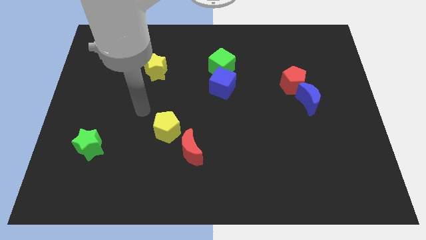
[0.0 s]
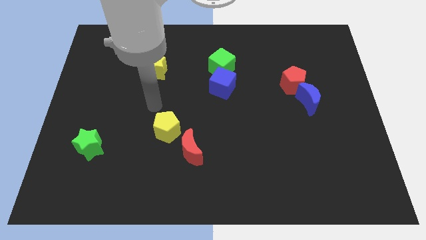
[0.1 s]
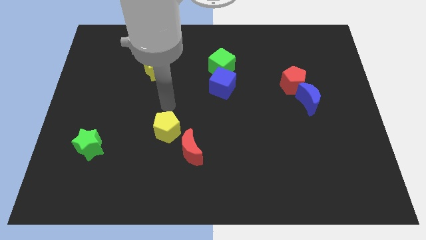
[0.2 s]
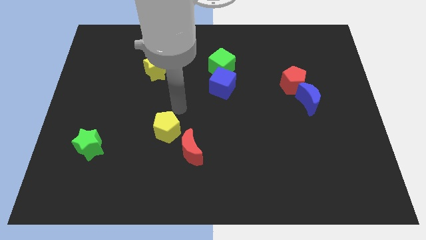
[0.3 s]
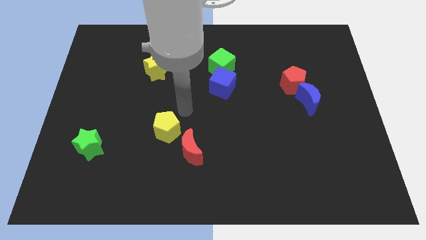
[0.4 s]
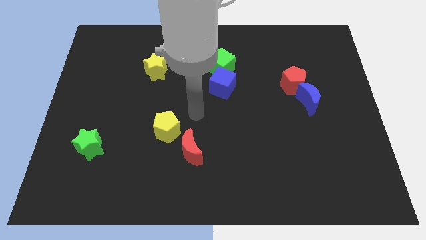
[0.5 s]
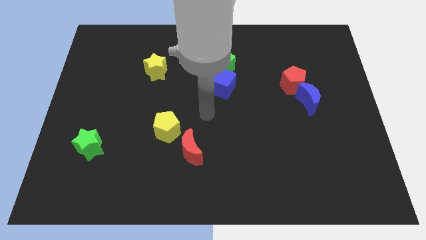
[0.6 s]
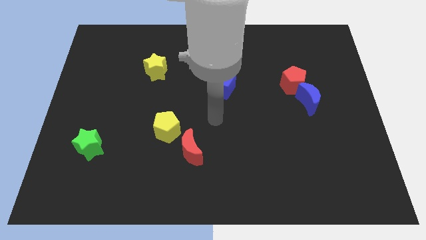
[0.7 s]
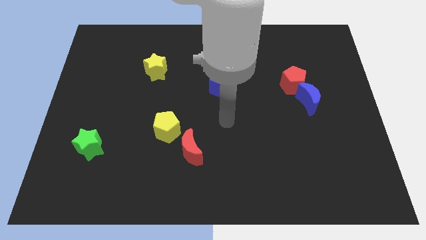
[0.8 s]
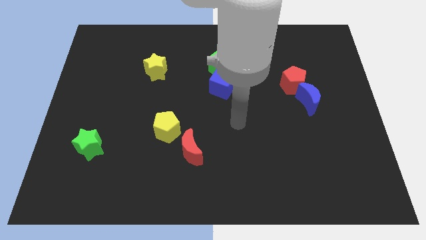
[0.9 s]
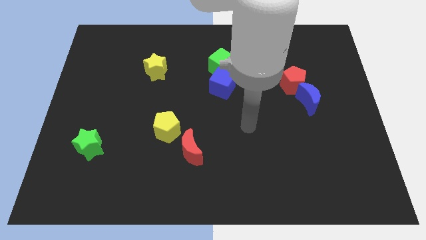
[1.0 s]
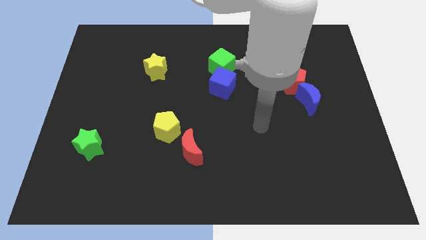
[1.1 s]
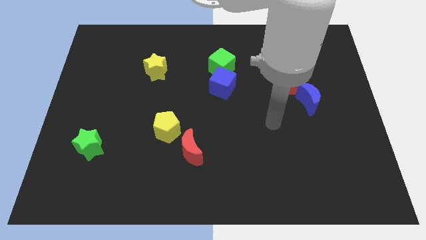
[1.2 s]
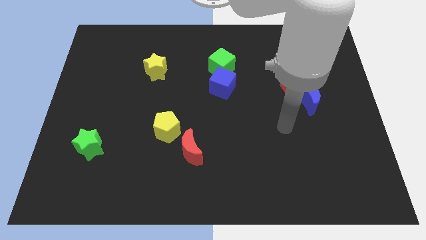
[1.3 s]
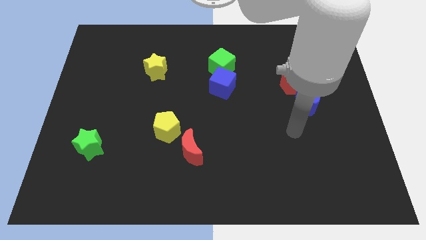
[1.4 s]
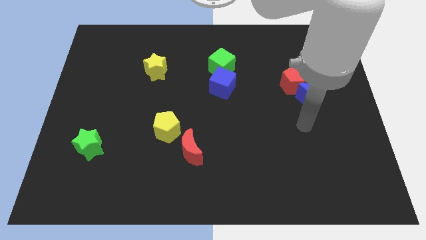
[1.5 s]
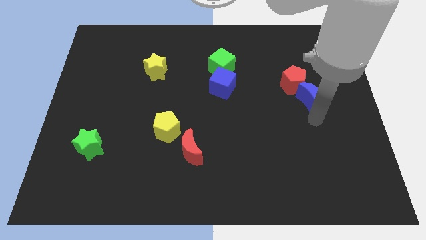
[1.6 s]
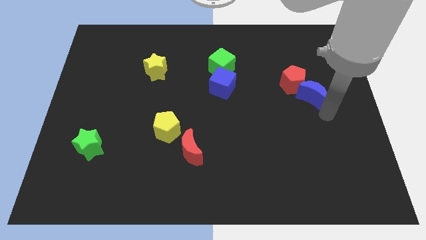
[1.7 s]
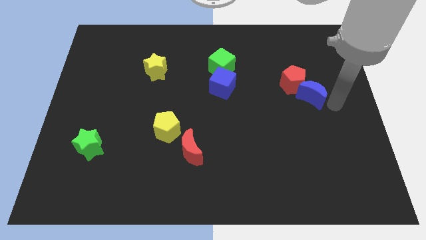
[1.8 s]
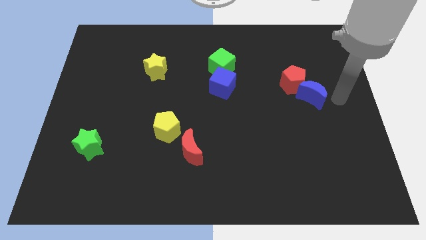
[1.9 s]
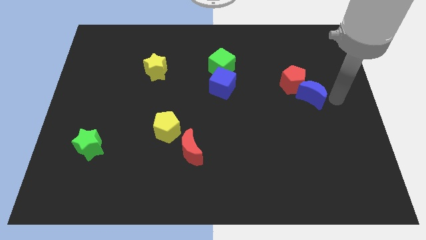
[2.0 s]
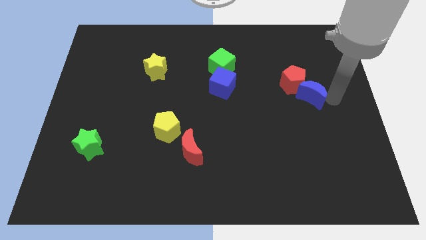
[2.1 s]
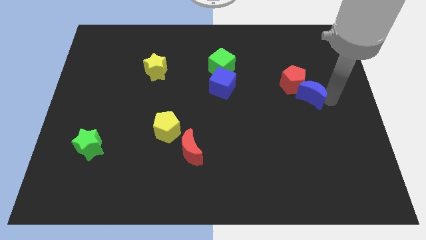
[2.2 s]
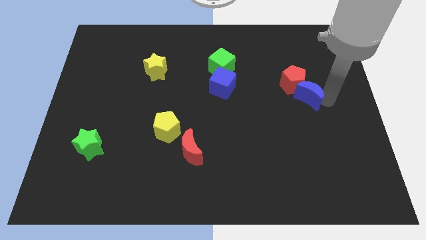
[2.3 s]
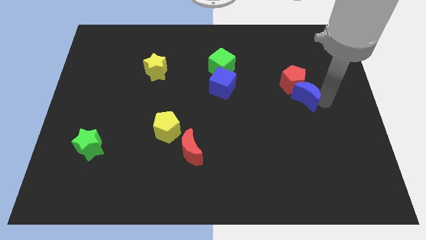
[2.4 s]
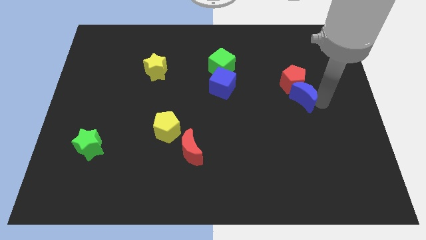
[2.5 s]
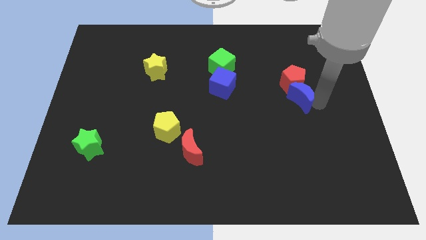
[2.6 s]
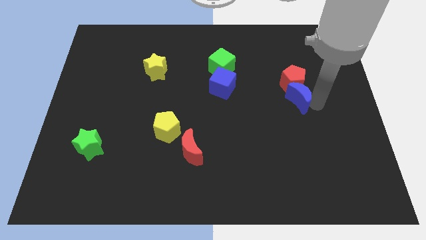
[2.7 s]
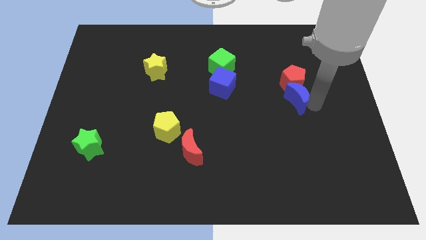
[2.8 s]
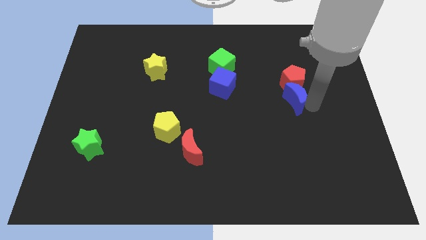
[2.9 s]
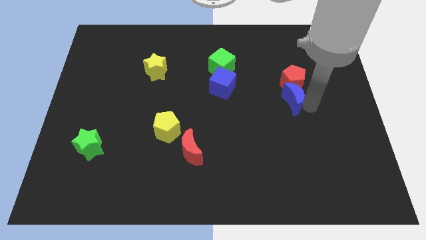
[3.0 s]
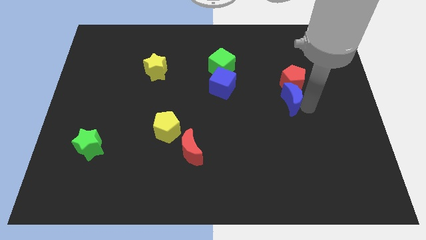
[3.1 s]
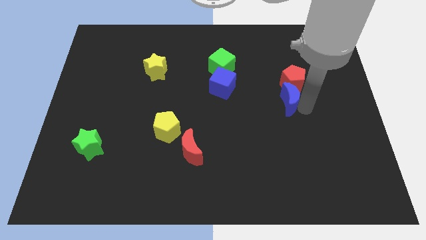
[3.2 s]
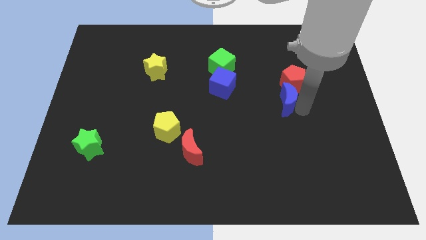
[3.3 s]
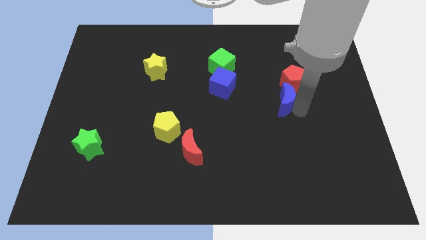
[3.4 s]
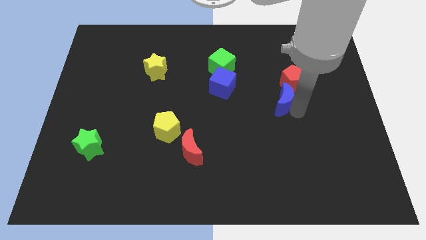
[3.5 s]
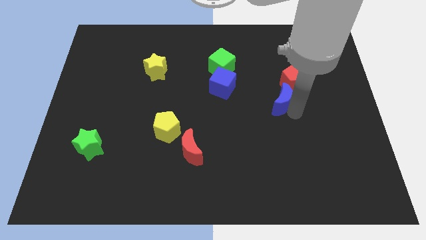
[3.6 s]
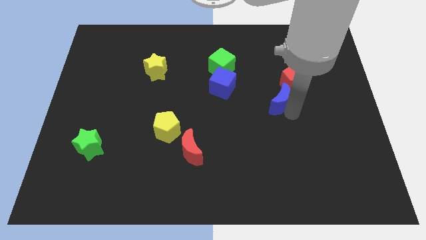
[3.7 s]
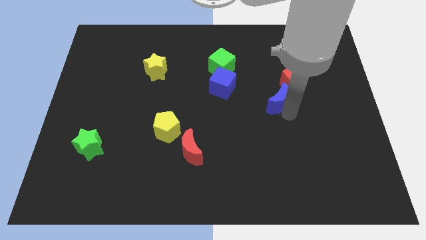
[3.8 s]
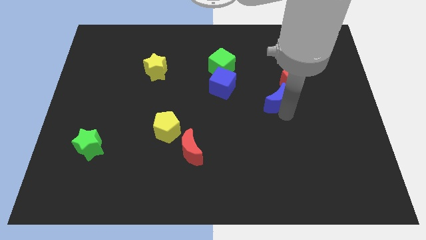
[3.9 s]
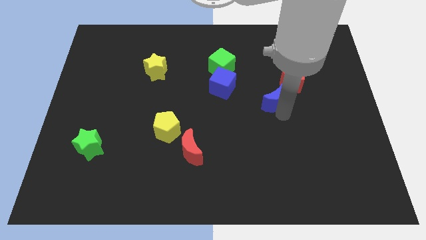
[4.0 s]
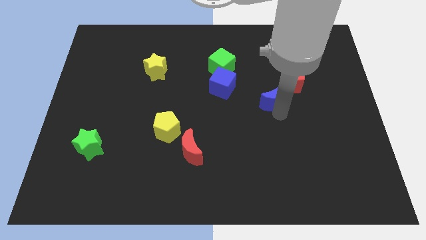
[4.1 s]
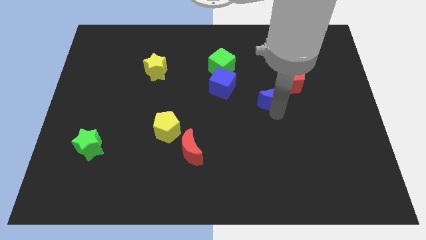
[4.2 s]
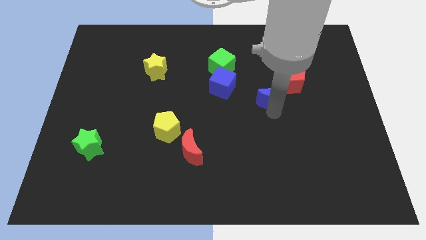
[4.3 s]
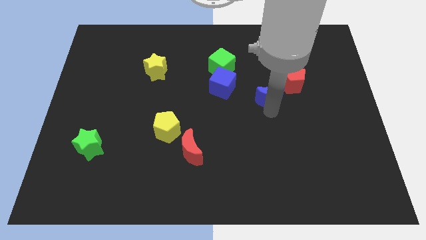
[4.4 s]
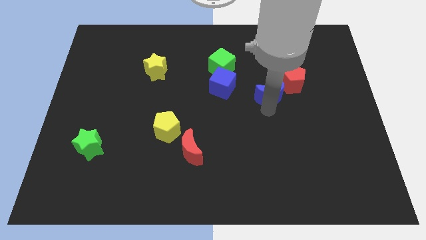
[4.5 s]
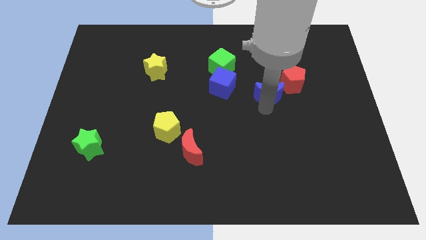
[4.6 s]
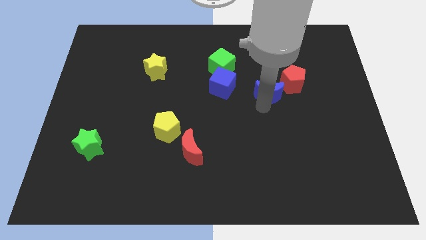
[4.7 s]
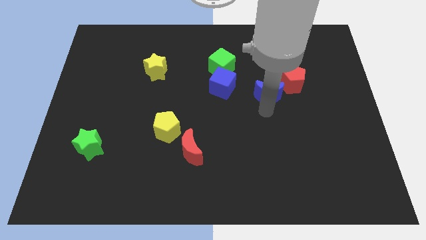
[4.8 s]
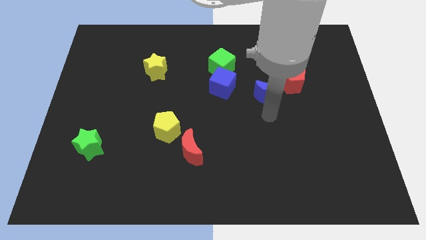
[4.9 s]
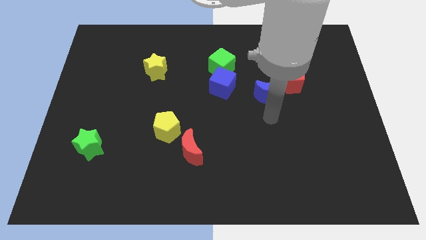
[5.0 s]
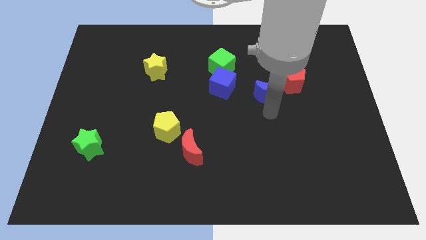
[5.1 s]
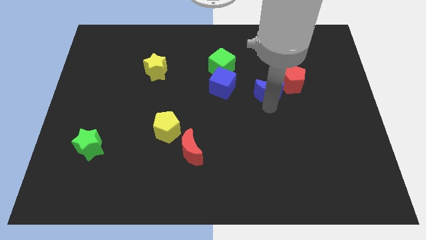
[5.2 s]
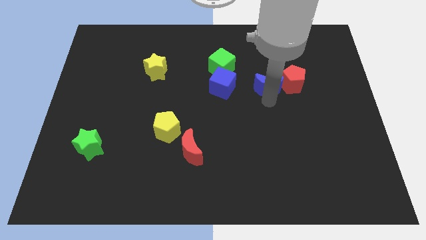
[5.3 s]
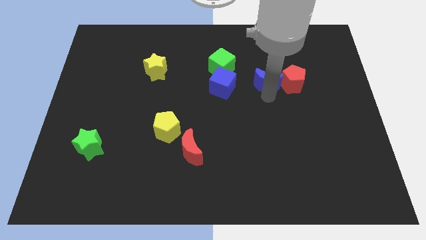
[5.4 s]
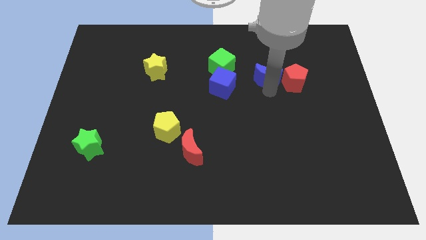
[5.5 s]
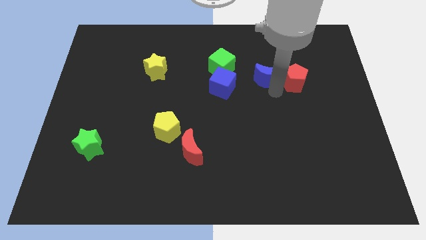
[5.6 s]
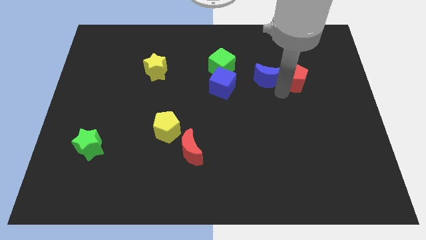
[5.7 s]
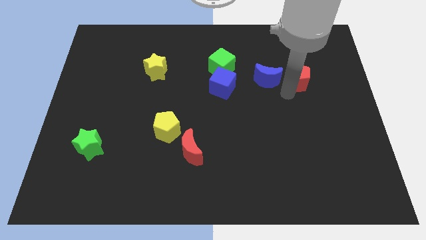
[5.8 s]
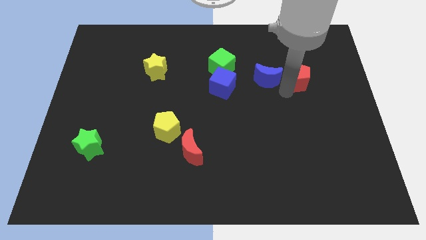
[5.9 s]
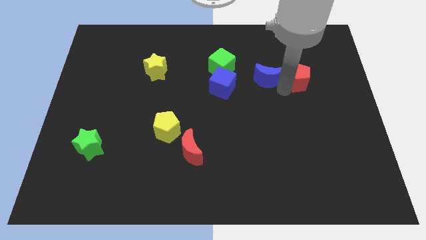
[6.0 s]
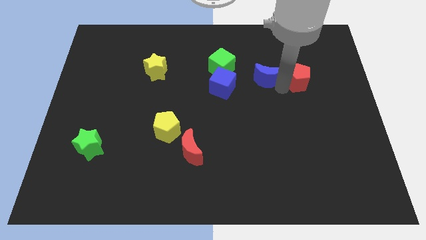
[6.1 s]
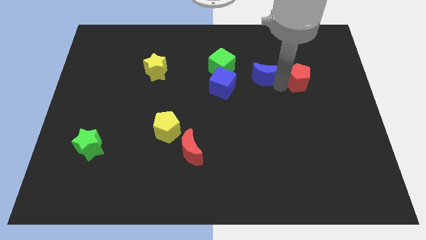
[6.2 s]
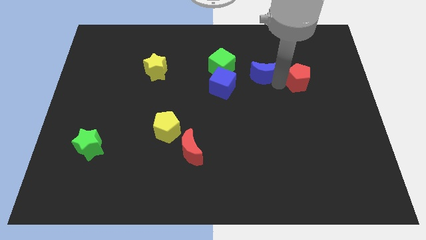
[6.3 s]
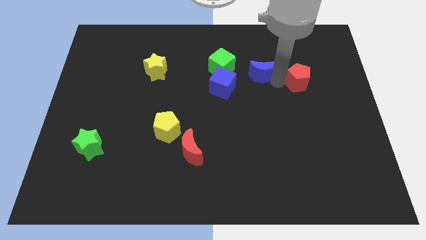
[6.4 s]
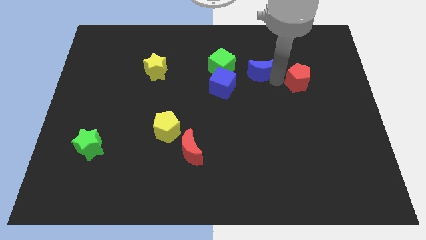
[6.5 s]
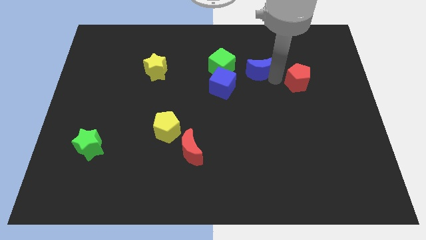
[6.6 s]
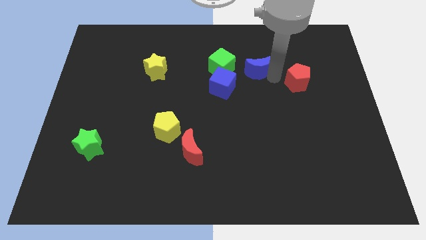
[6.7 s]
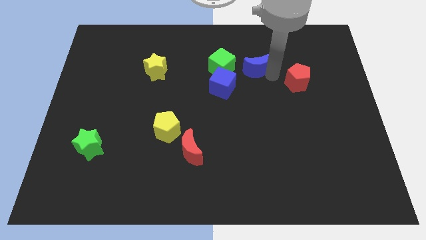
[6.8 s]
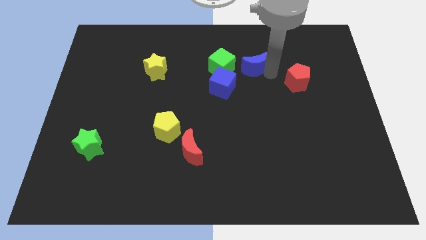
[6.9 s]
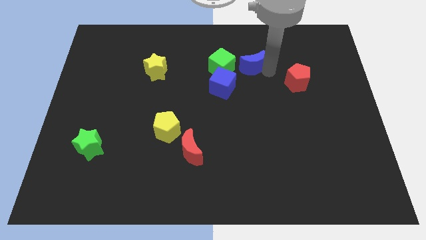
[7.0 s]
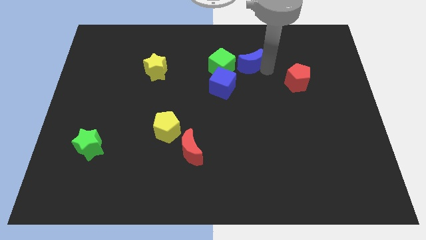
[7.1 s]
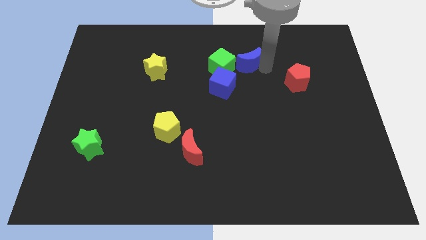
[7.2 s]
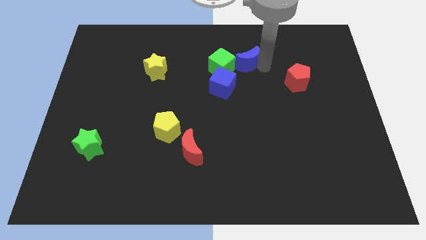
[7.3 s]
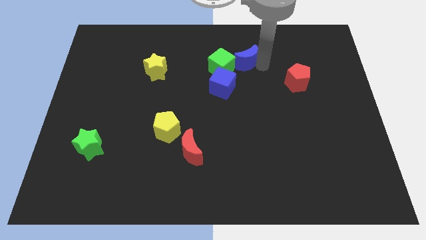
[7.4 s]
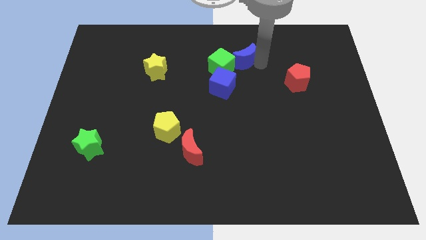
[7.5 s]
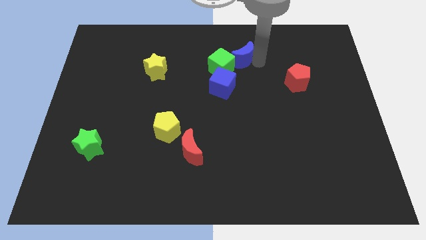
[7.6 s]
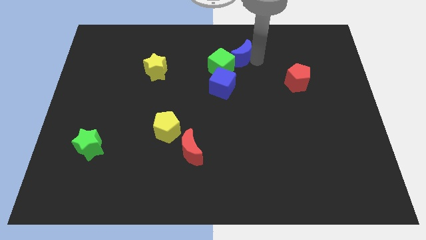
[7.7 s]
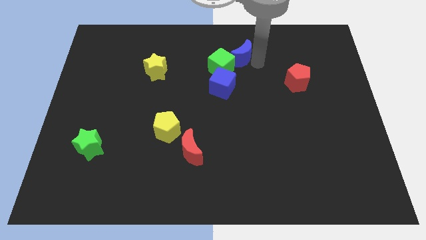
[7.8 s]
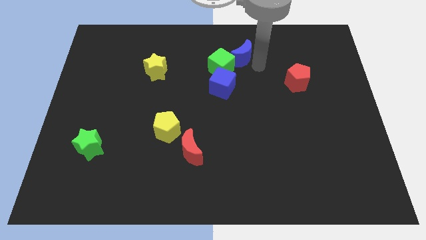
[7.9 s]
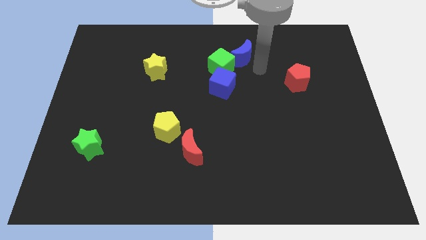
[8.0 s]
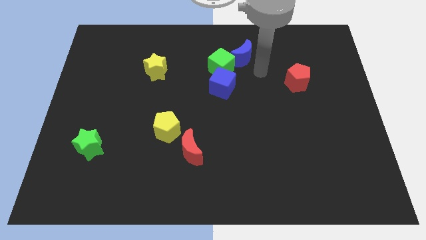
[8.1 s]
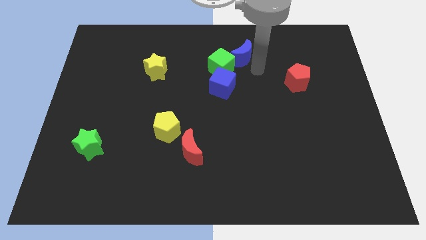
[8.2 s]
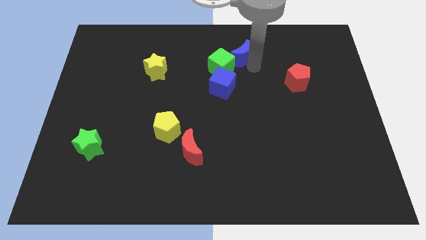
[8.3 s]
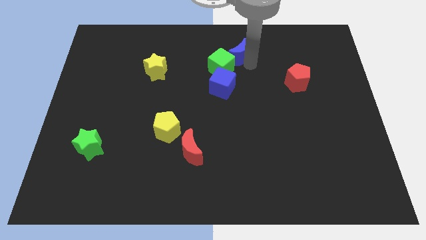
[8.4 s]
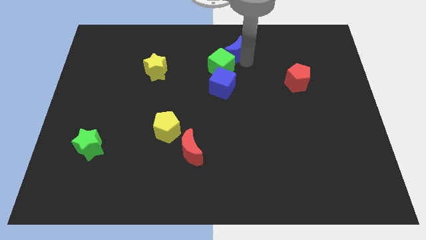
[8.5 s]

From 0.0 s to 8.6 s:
put the blue moon to the top
